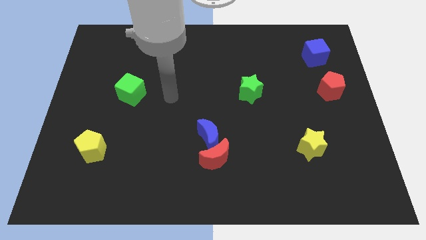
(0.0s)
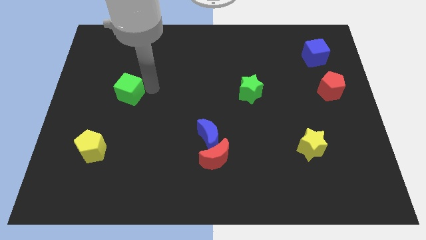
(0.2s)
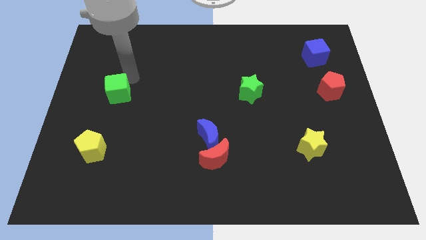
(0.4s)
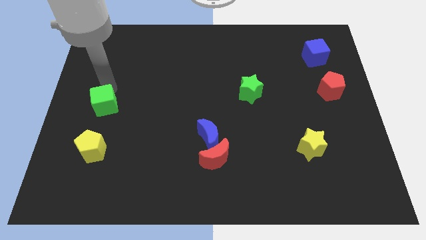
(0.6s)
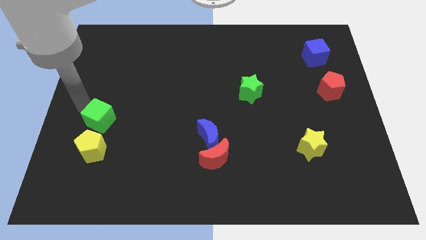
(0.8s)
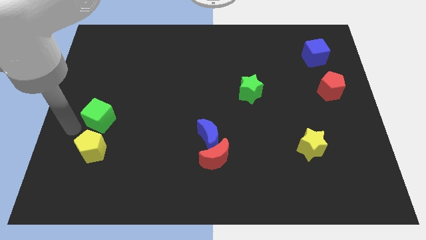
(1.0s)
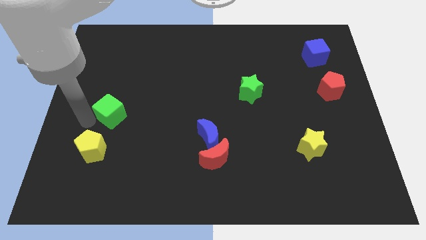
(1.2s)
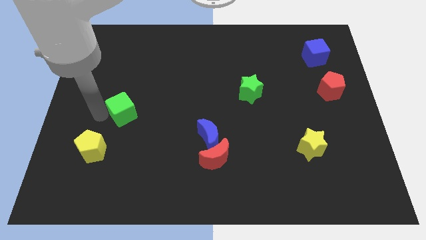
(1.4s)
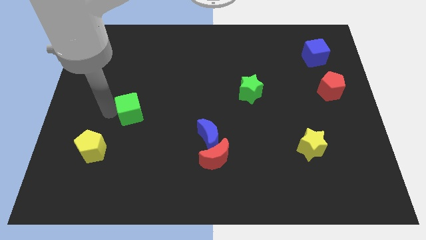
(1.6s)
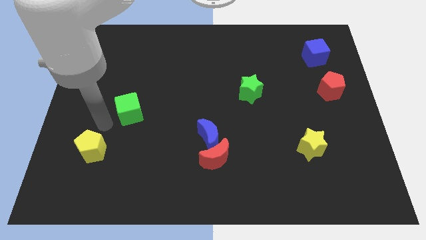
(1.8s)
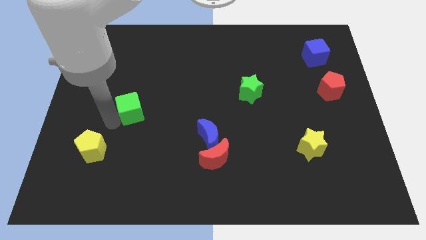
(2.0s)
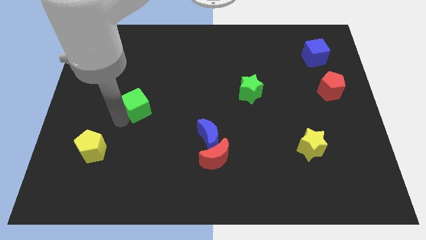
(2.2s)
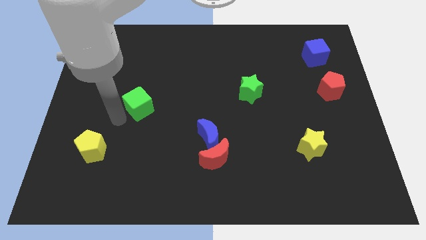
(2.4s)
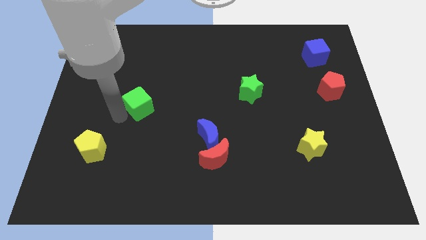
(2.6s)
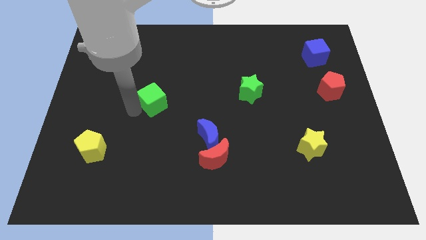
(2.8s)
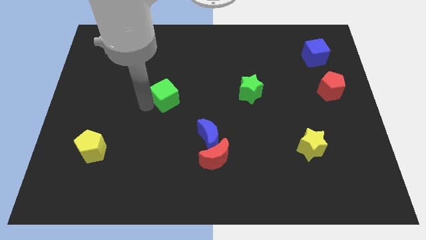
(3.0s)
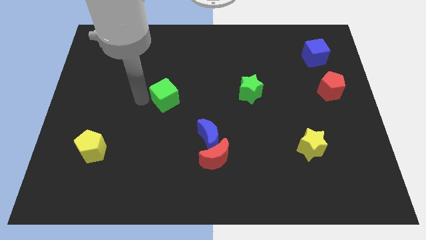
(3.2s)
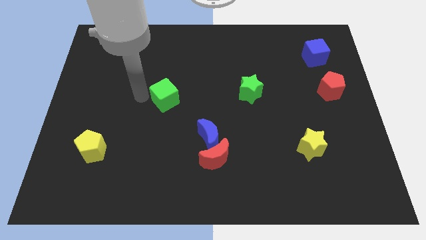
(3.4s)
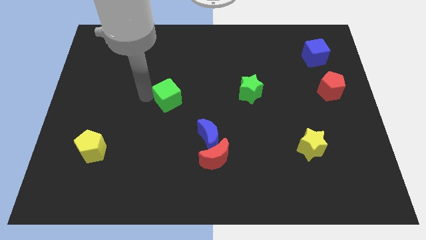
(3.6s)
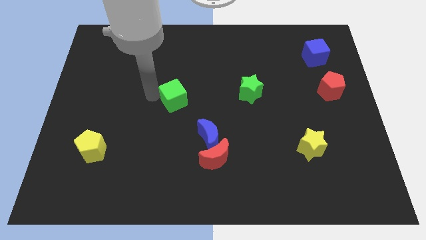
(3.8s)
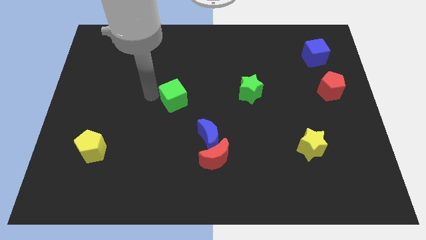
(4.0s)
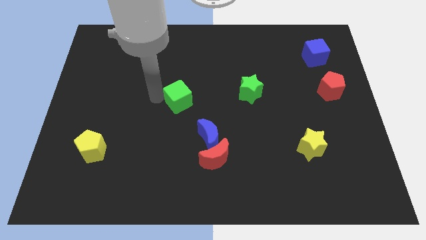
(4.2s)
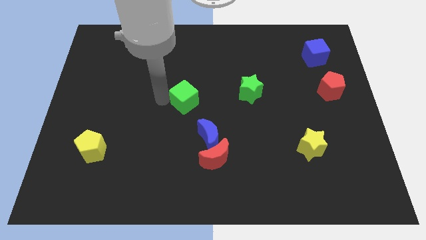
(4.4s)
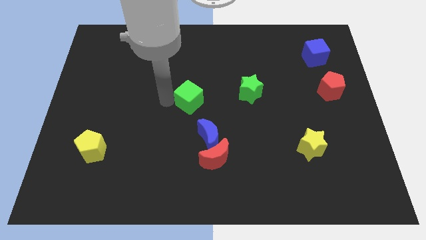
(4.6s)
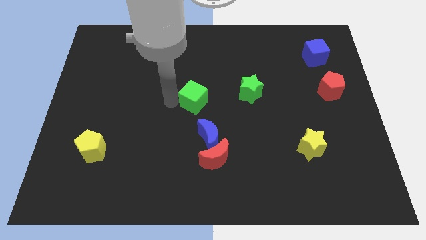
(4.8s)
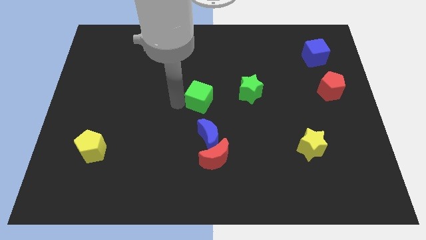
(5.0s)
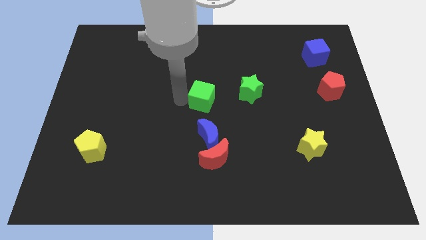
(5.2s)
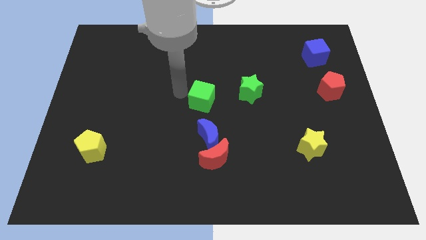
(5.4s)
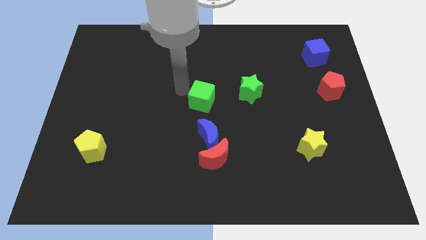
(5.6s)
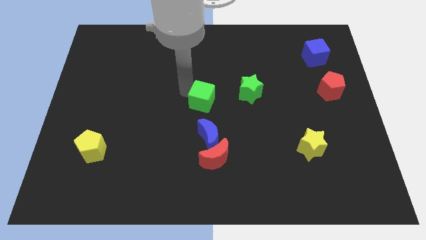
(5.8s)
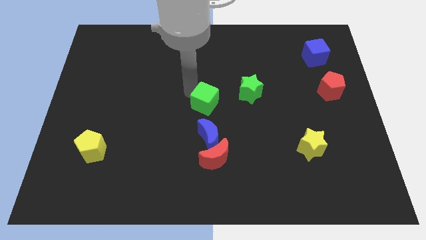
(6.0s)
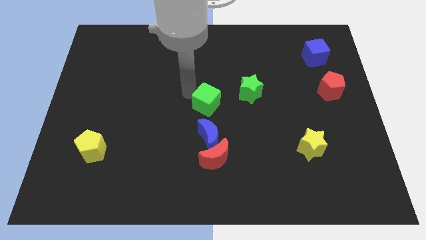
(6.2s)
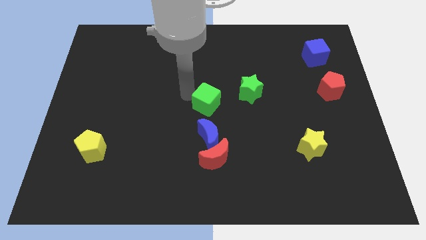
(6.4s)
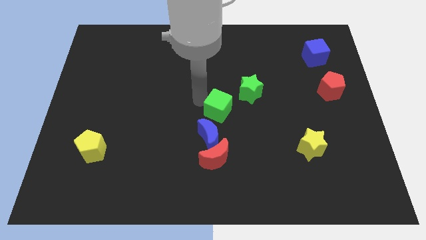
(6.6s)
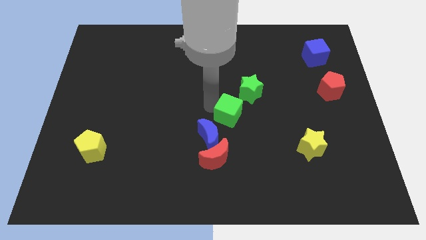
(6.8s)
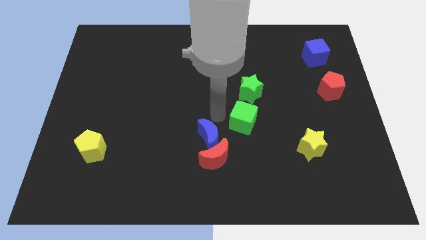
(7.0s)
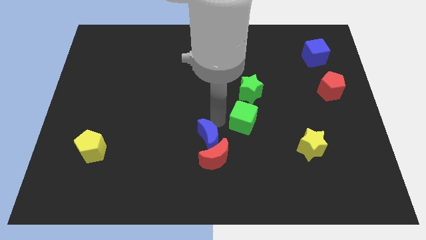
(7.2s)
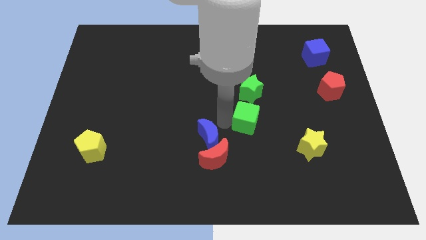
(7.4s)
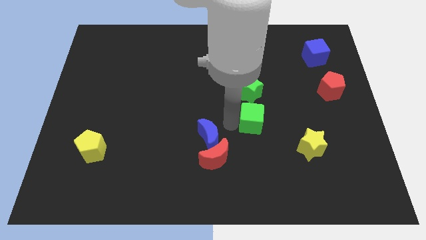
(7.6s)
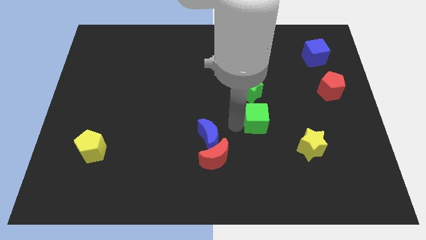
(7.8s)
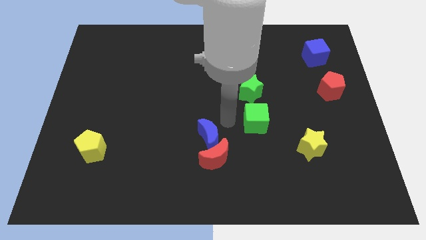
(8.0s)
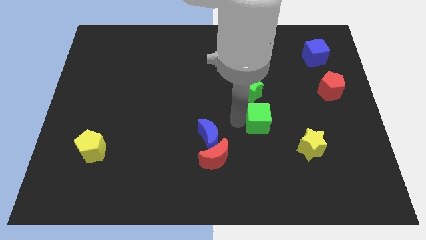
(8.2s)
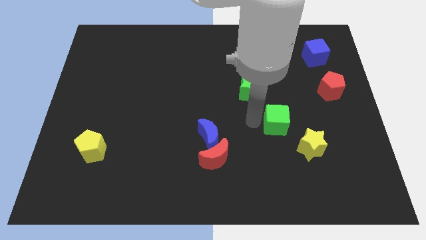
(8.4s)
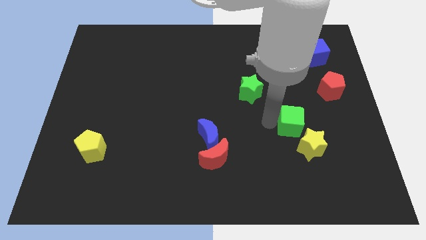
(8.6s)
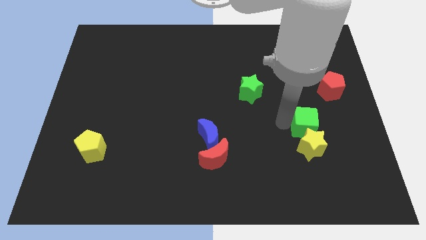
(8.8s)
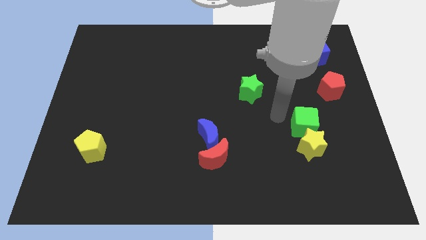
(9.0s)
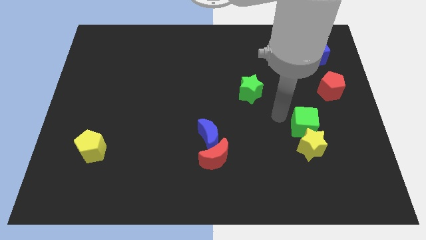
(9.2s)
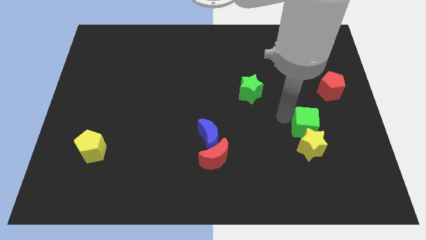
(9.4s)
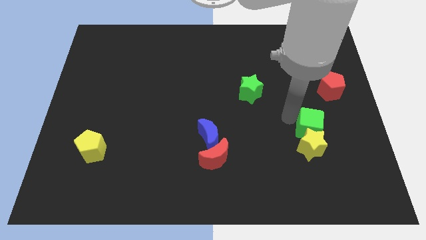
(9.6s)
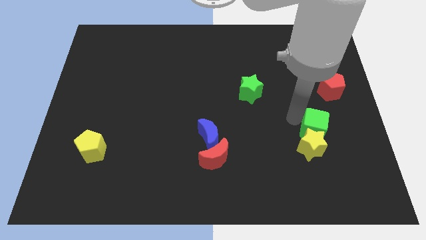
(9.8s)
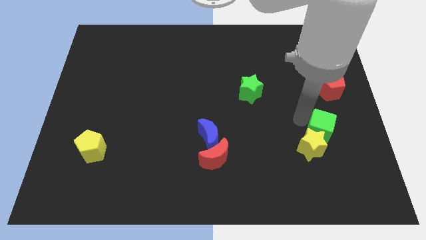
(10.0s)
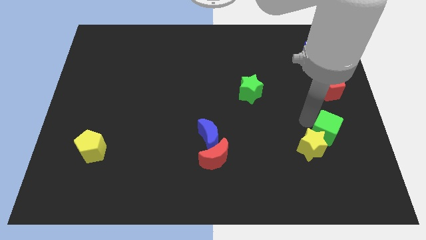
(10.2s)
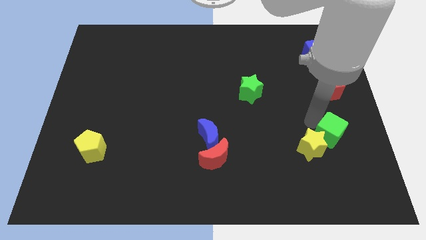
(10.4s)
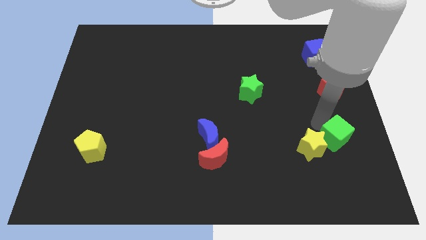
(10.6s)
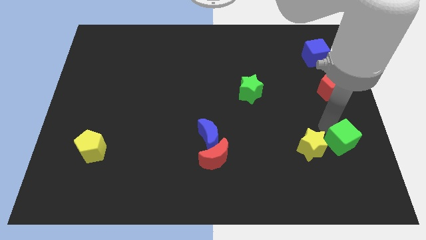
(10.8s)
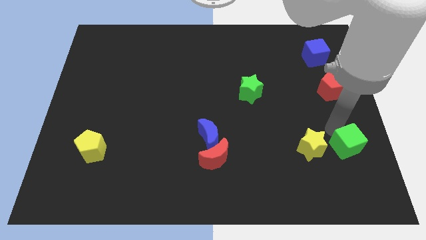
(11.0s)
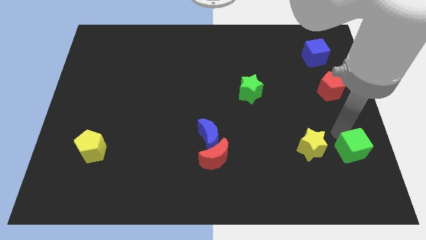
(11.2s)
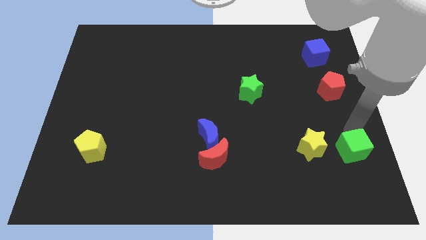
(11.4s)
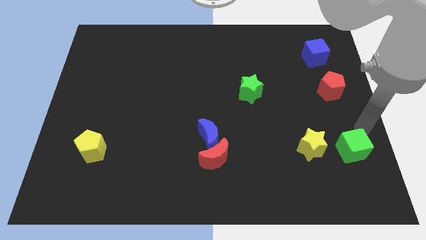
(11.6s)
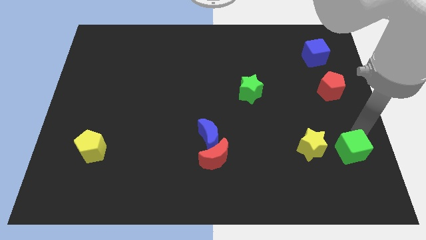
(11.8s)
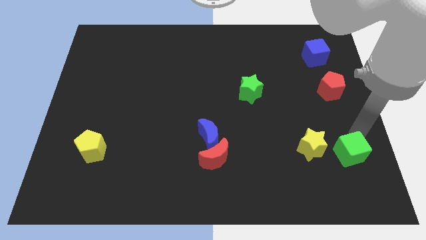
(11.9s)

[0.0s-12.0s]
push the green cube to the bottom right side of the yellow star

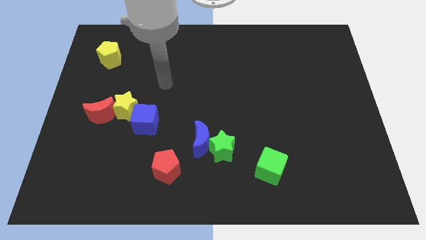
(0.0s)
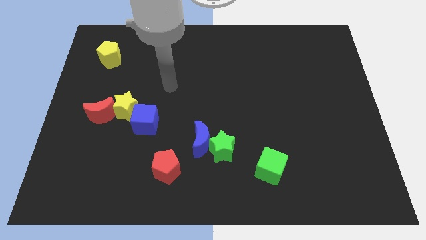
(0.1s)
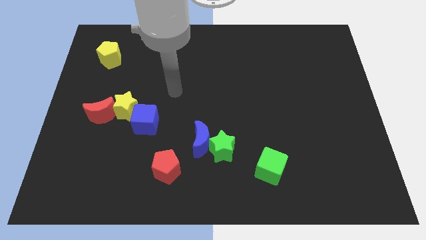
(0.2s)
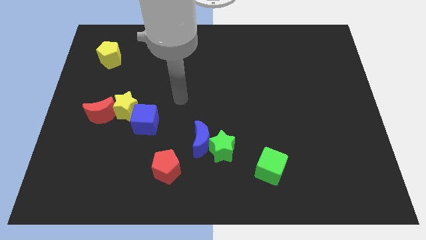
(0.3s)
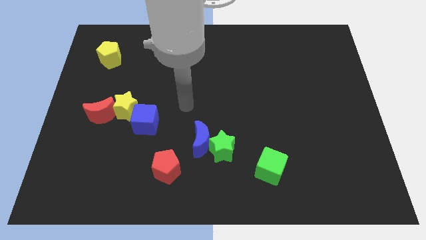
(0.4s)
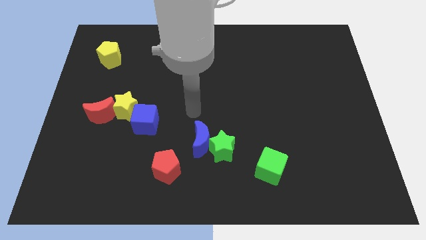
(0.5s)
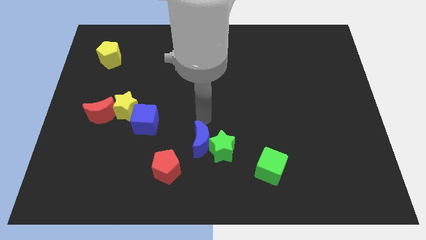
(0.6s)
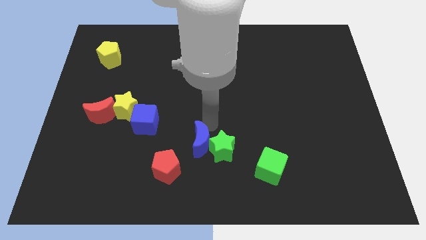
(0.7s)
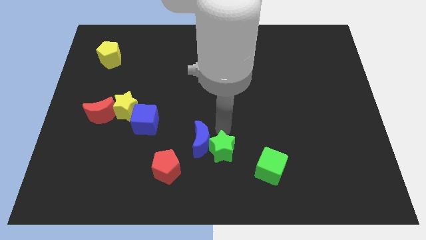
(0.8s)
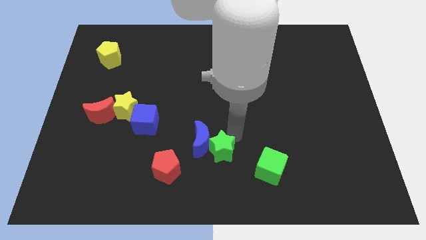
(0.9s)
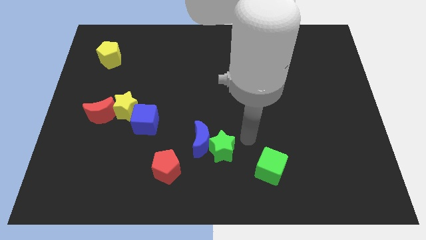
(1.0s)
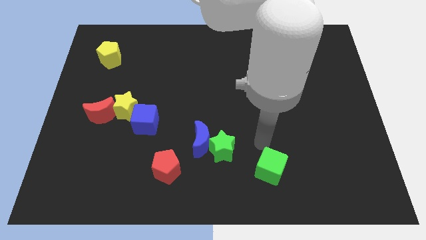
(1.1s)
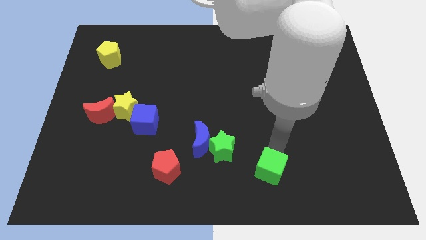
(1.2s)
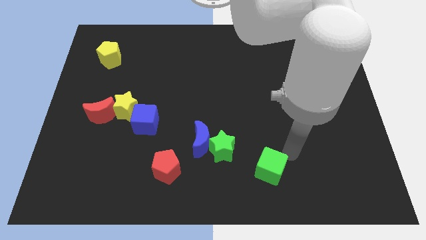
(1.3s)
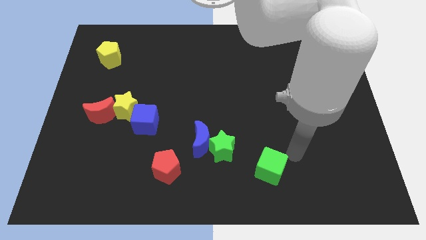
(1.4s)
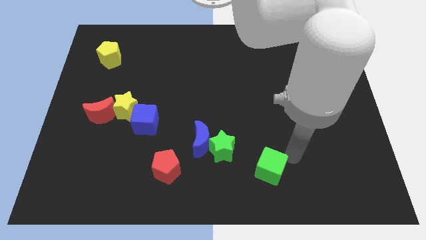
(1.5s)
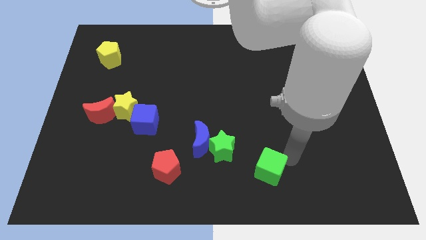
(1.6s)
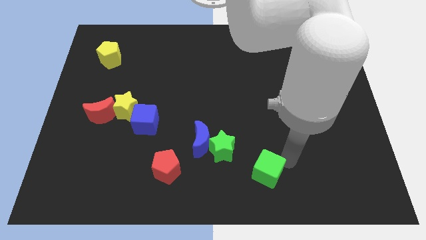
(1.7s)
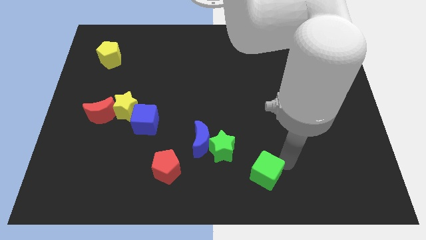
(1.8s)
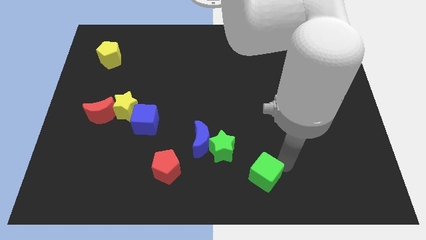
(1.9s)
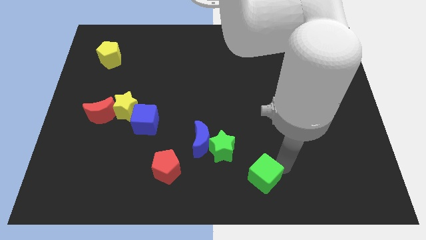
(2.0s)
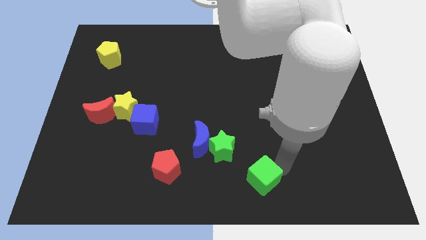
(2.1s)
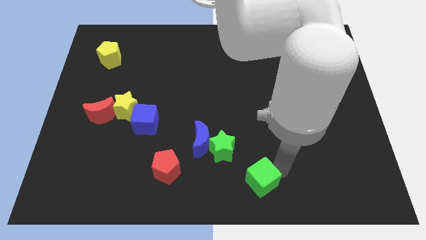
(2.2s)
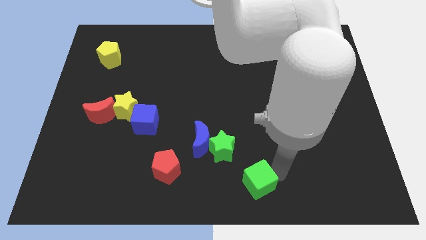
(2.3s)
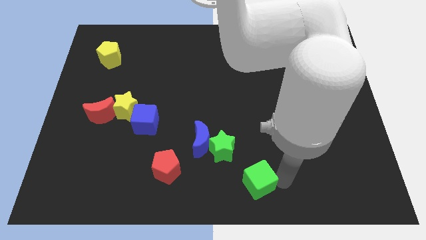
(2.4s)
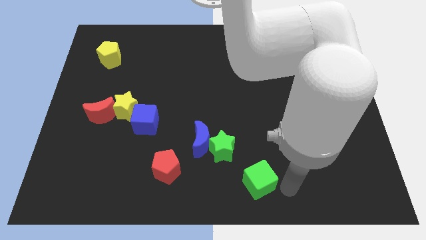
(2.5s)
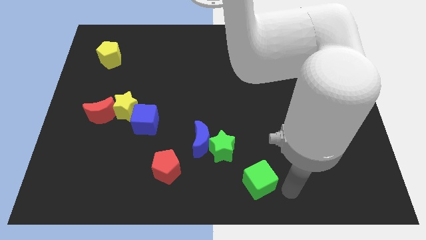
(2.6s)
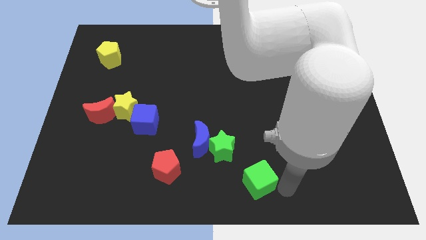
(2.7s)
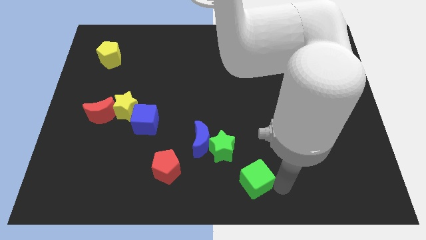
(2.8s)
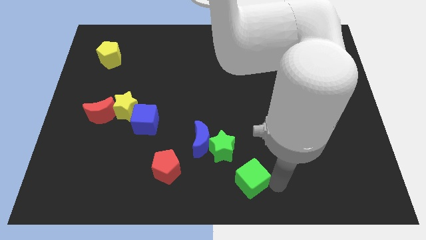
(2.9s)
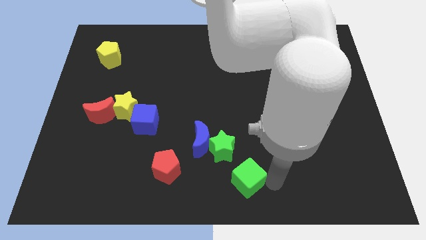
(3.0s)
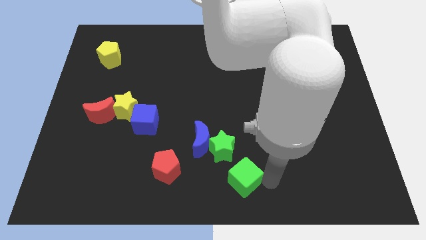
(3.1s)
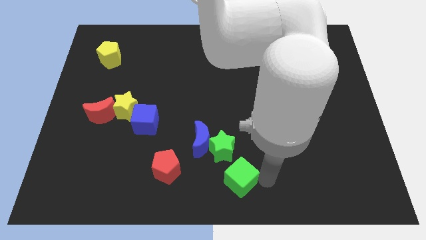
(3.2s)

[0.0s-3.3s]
slide the green cube to the right of the red pentagon
